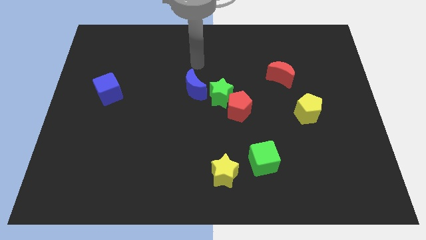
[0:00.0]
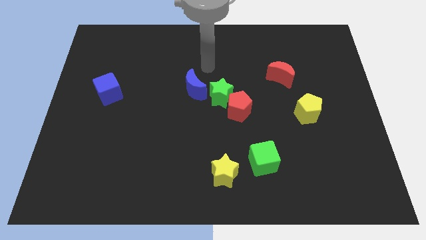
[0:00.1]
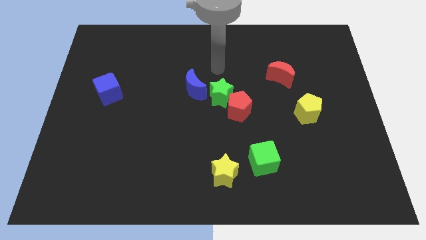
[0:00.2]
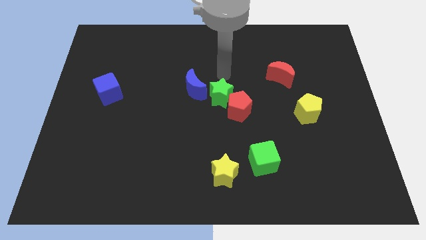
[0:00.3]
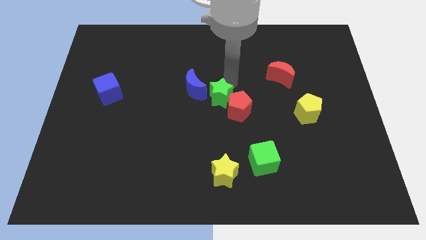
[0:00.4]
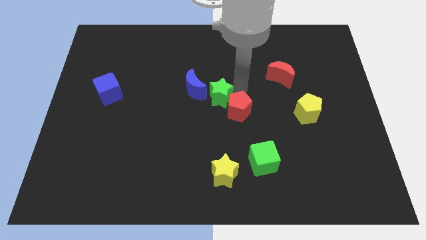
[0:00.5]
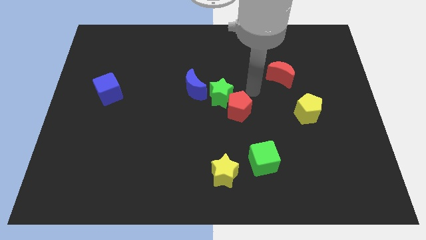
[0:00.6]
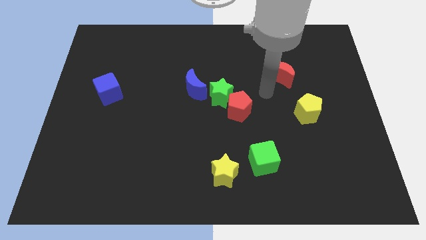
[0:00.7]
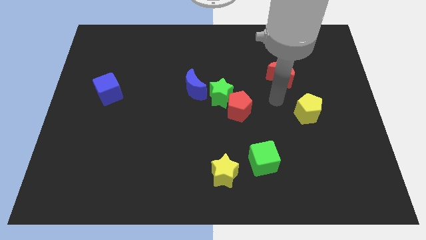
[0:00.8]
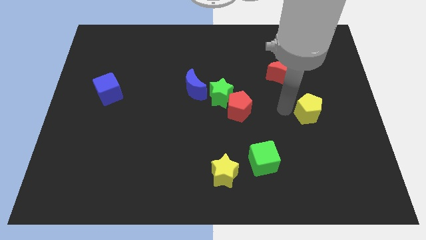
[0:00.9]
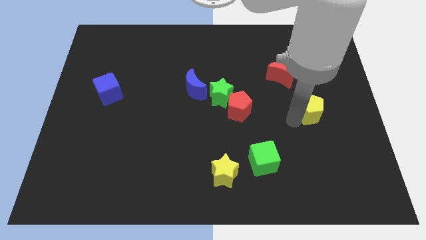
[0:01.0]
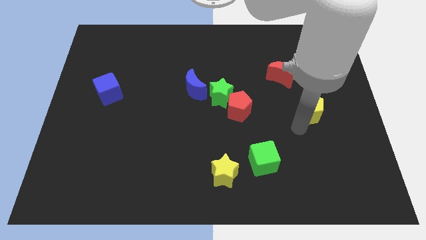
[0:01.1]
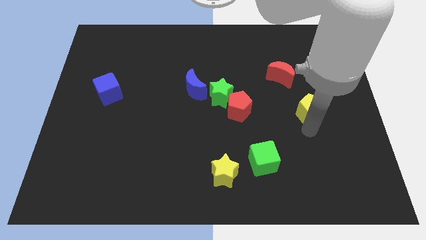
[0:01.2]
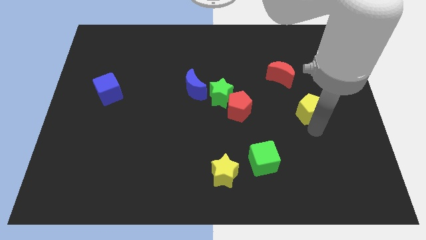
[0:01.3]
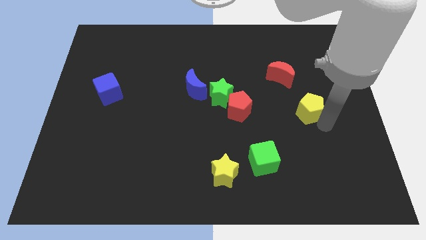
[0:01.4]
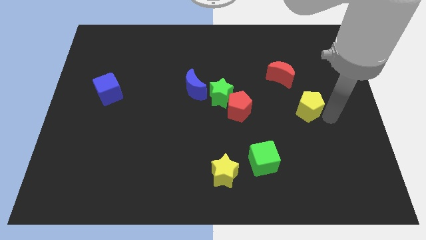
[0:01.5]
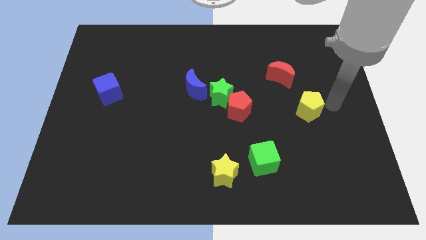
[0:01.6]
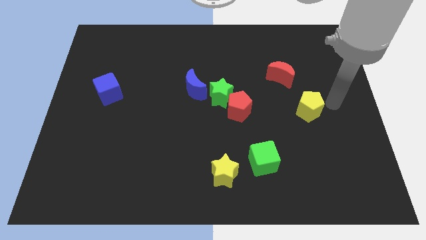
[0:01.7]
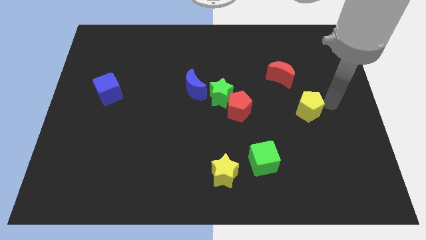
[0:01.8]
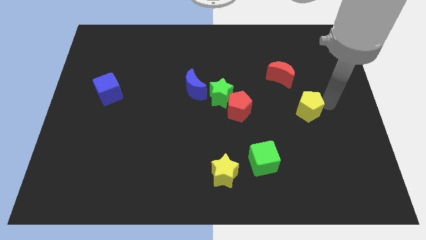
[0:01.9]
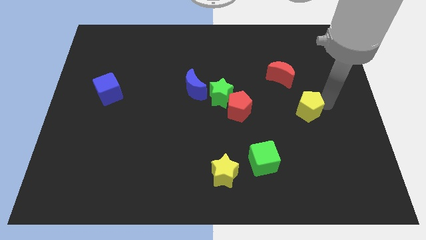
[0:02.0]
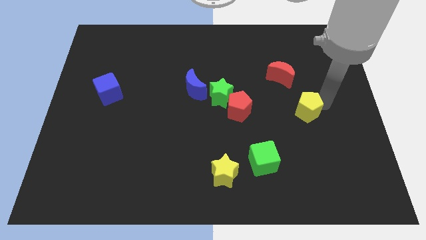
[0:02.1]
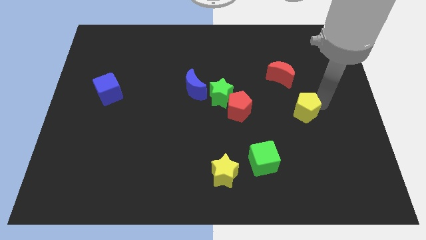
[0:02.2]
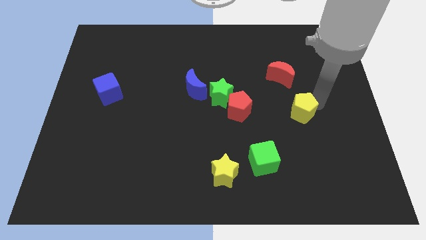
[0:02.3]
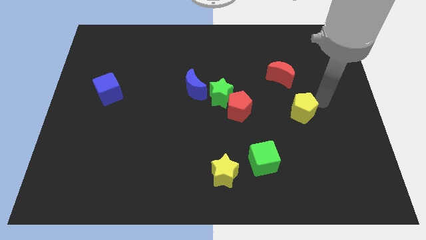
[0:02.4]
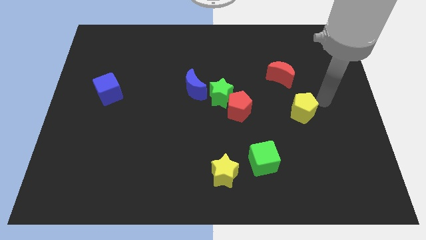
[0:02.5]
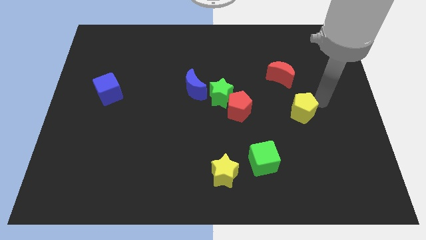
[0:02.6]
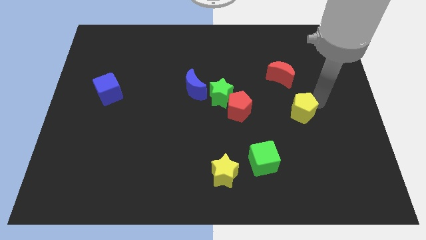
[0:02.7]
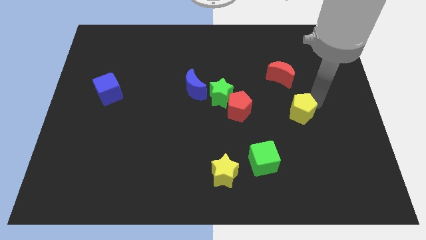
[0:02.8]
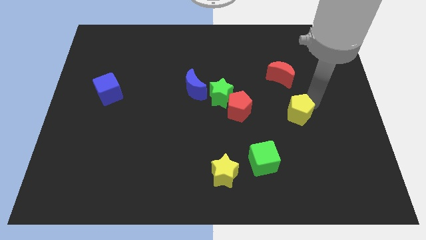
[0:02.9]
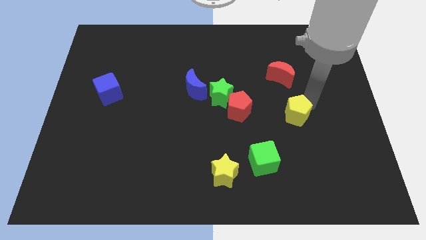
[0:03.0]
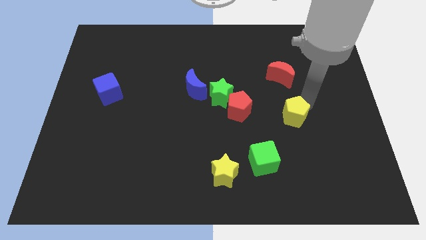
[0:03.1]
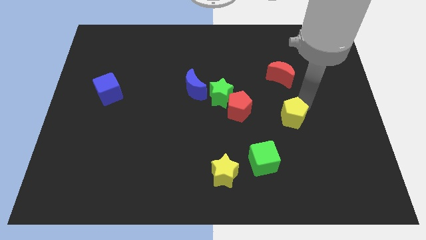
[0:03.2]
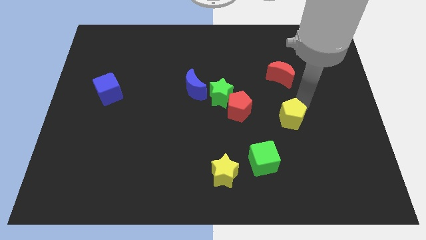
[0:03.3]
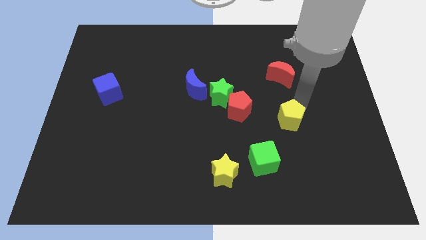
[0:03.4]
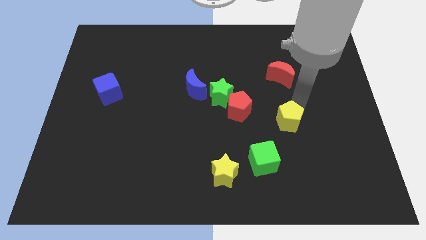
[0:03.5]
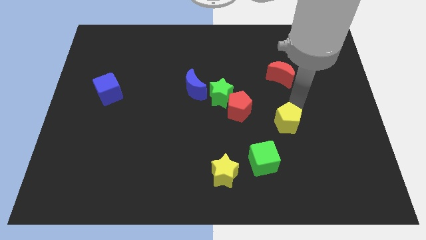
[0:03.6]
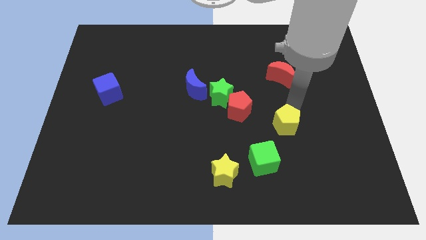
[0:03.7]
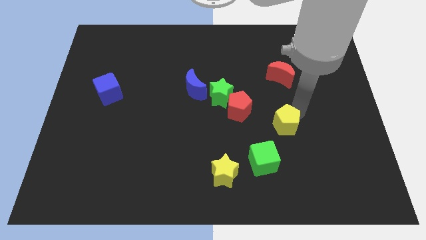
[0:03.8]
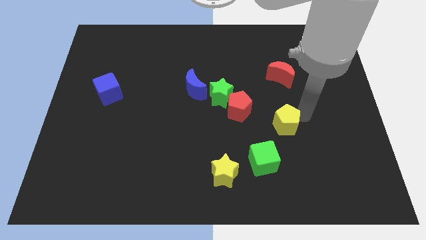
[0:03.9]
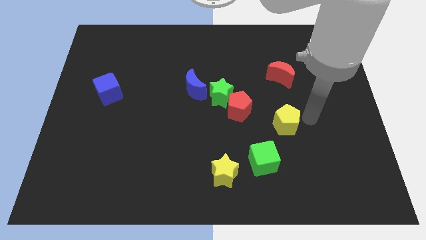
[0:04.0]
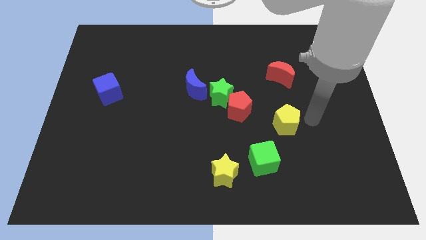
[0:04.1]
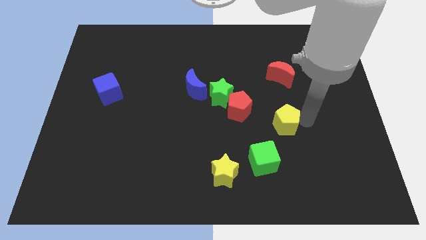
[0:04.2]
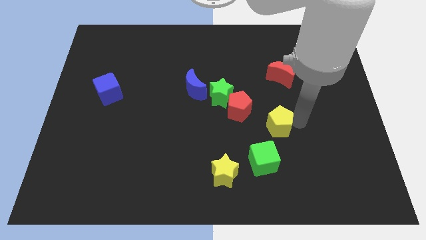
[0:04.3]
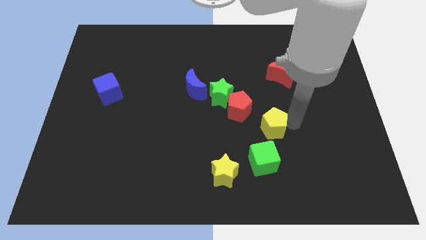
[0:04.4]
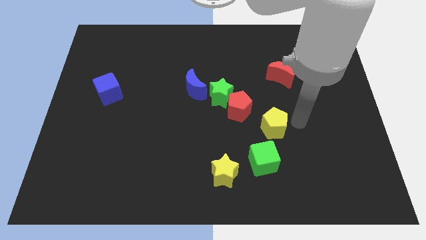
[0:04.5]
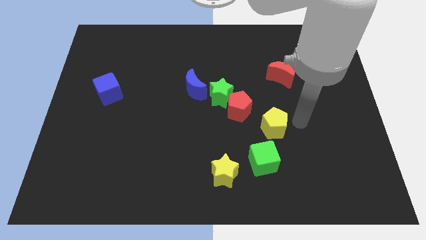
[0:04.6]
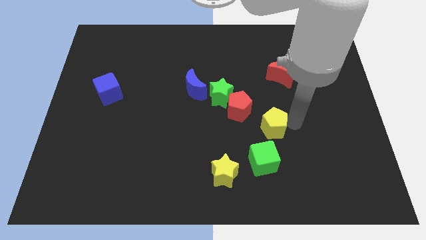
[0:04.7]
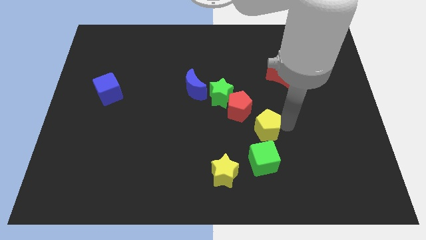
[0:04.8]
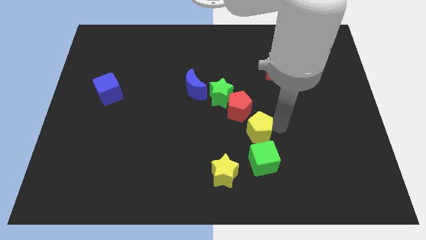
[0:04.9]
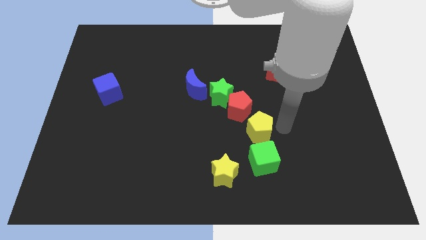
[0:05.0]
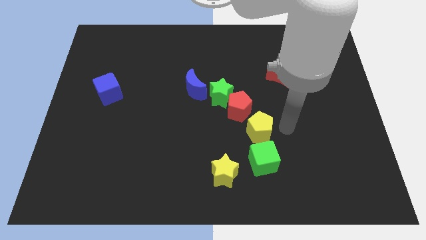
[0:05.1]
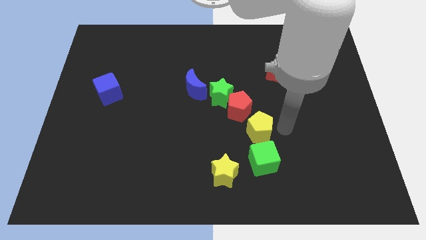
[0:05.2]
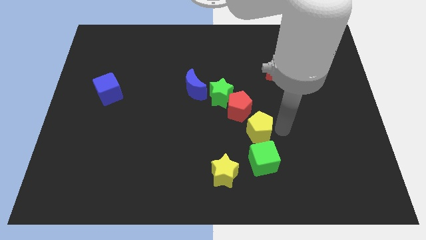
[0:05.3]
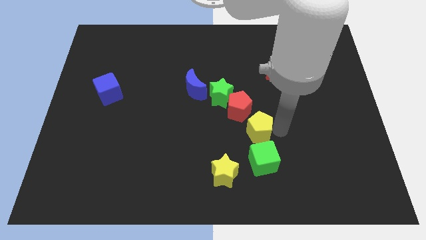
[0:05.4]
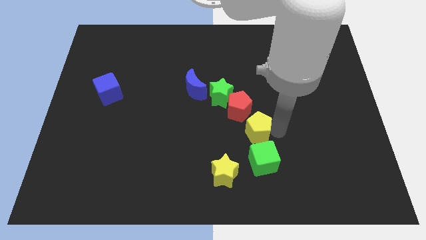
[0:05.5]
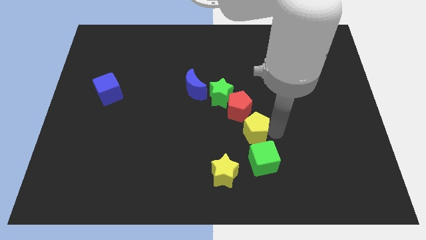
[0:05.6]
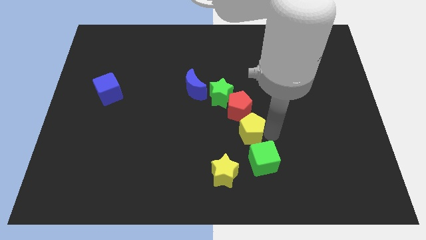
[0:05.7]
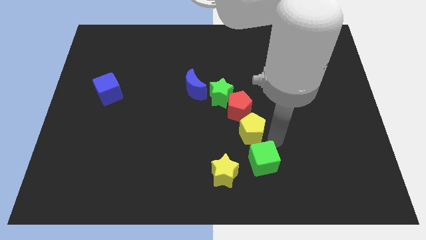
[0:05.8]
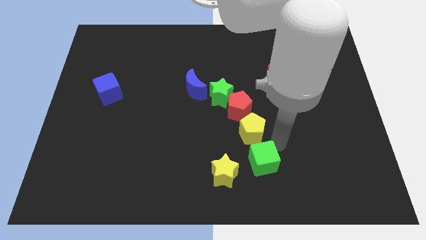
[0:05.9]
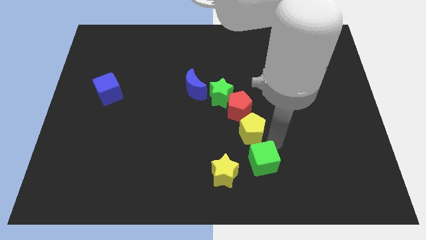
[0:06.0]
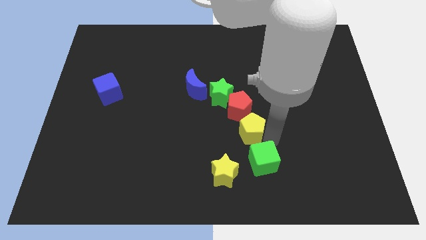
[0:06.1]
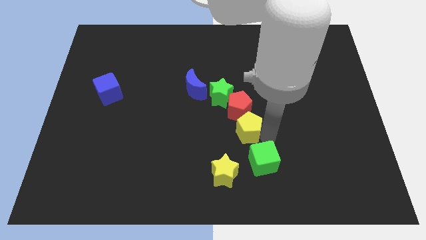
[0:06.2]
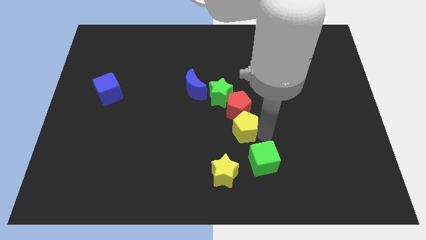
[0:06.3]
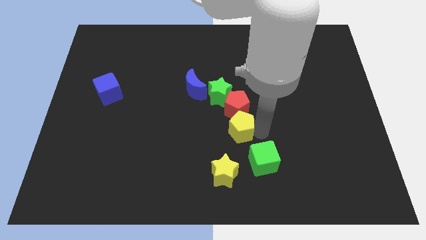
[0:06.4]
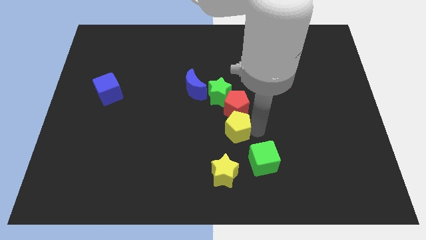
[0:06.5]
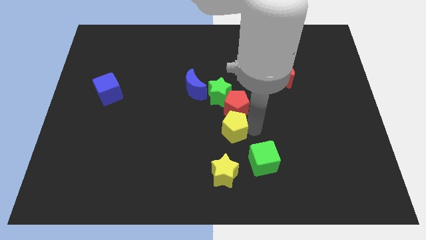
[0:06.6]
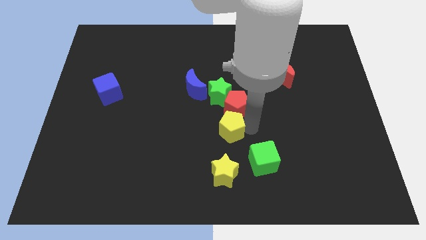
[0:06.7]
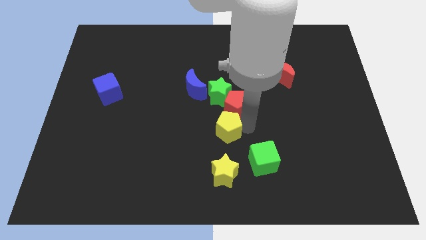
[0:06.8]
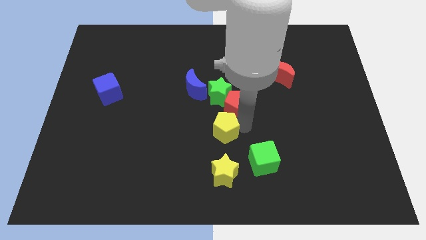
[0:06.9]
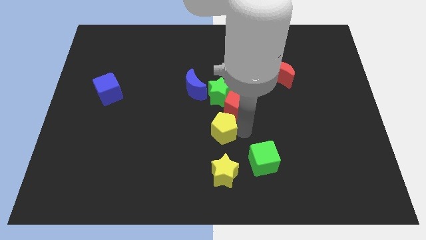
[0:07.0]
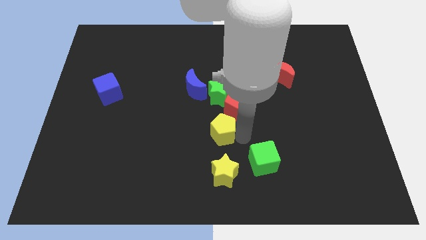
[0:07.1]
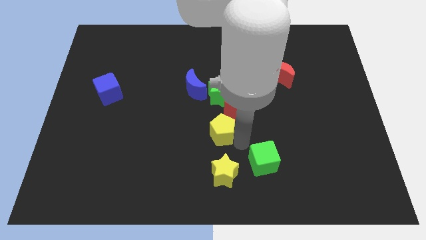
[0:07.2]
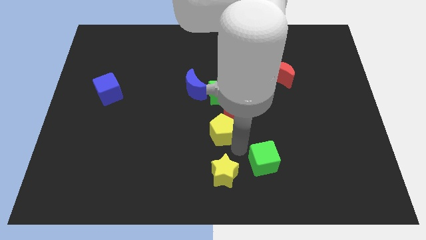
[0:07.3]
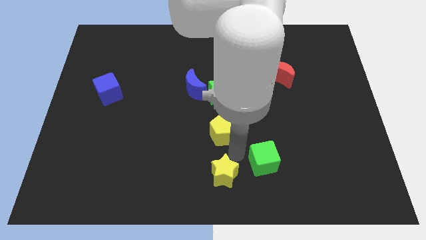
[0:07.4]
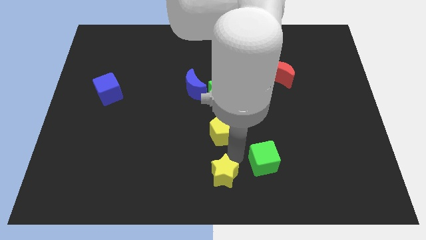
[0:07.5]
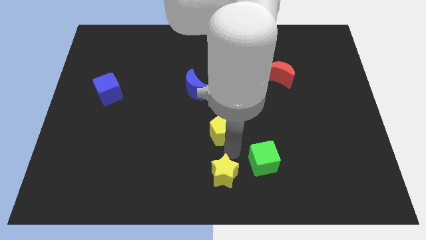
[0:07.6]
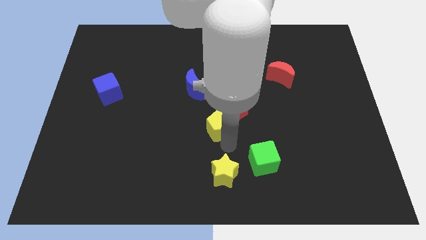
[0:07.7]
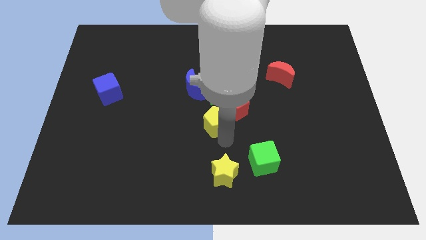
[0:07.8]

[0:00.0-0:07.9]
move the yellow pentagon to the left of the red pentagon

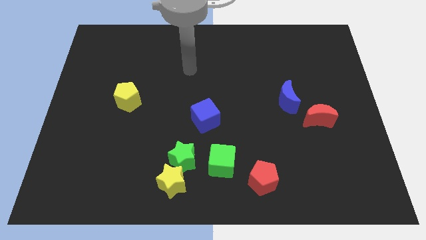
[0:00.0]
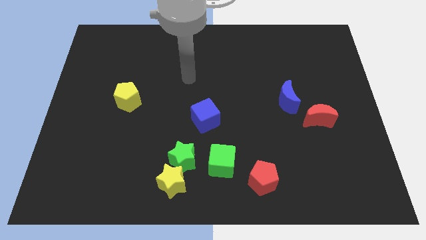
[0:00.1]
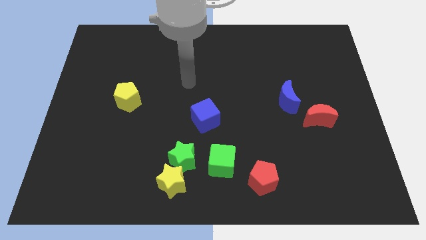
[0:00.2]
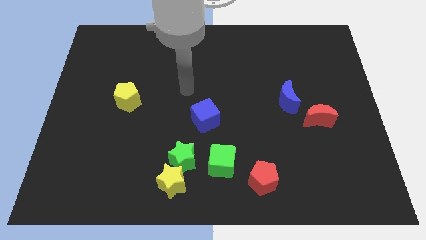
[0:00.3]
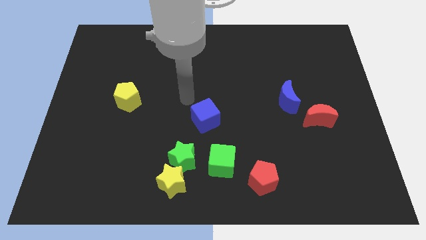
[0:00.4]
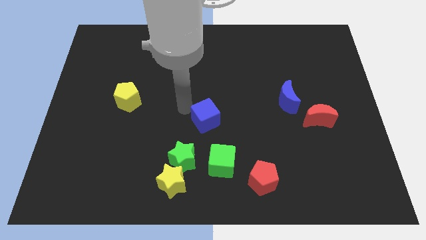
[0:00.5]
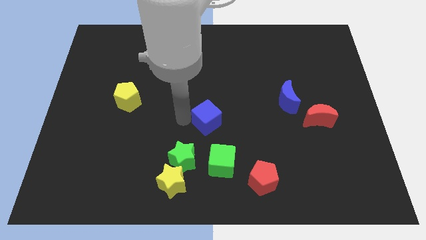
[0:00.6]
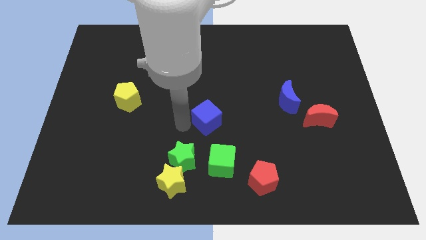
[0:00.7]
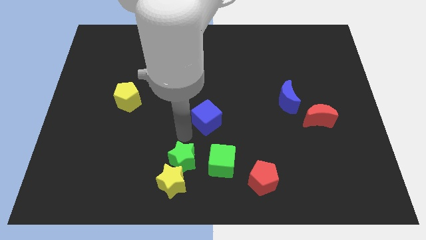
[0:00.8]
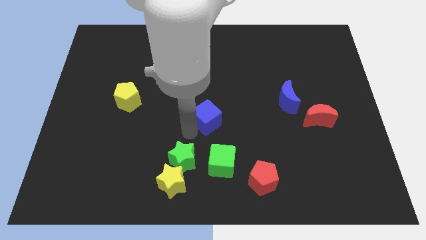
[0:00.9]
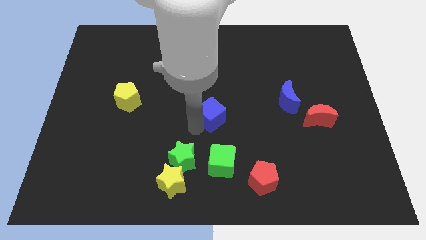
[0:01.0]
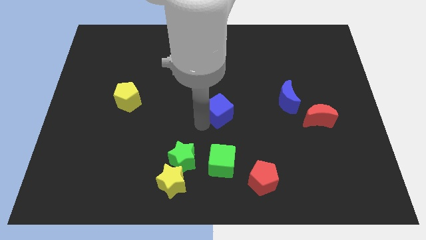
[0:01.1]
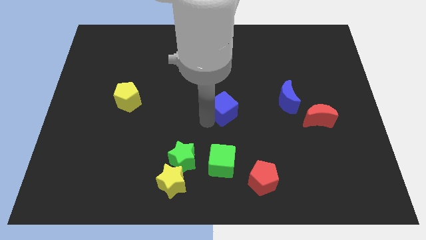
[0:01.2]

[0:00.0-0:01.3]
put the blue cube to the left of the blue moon
